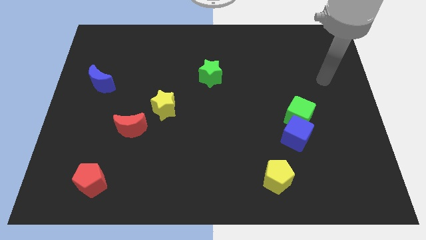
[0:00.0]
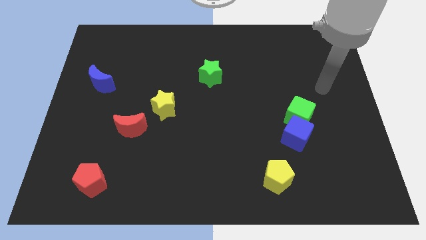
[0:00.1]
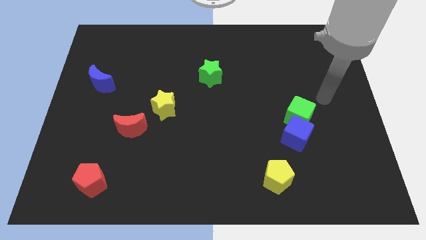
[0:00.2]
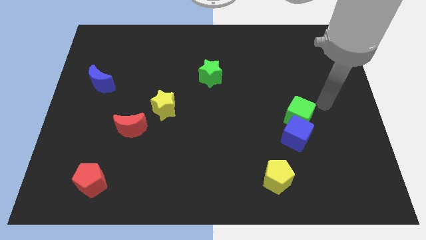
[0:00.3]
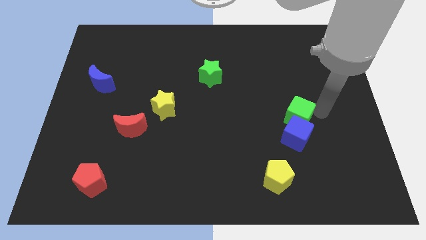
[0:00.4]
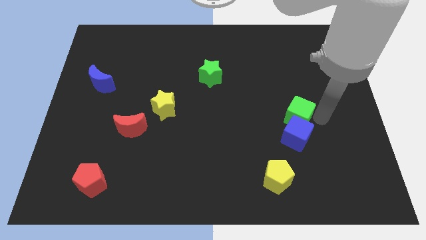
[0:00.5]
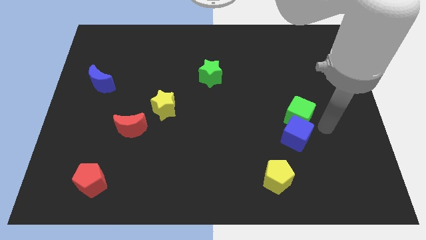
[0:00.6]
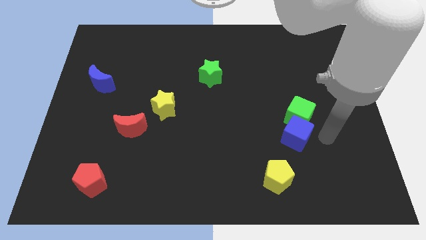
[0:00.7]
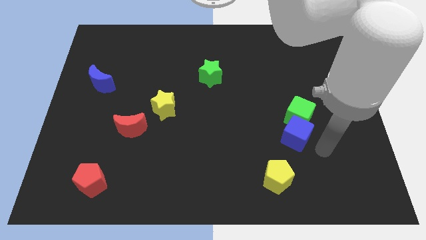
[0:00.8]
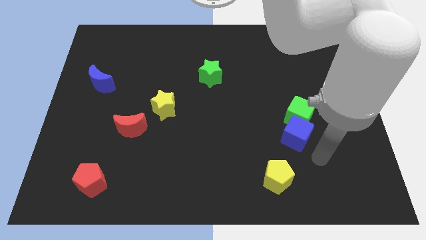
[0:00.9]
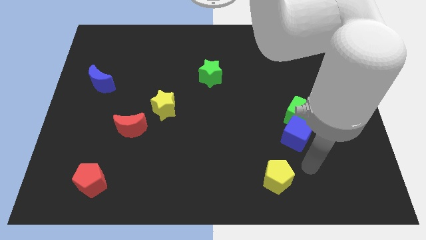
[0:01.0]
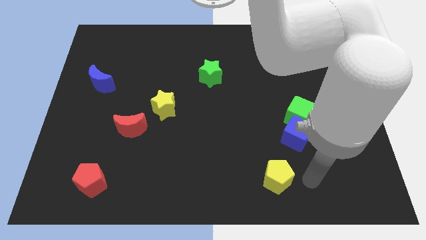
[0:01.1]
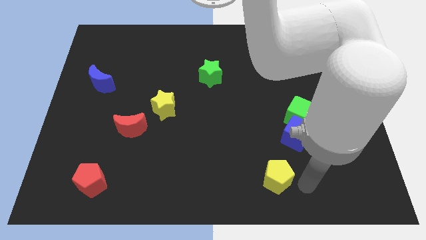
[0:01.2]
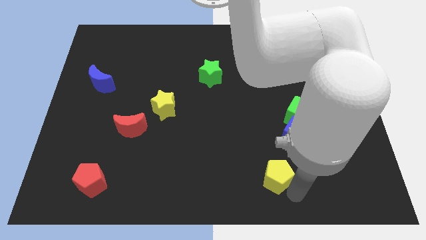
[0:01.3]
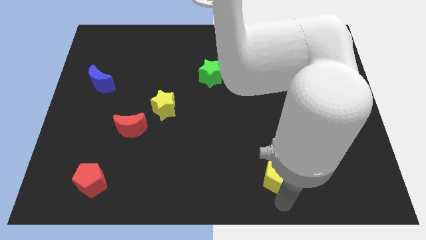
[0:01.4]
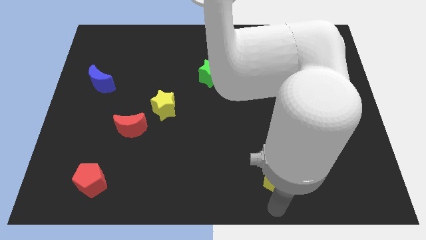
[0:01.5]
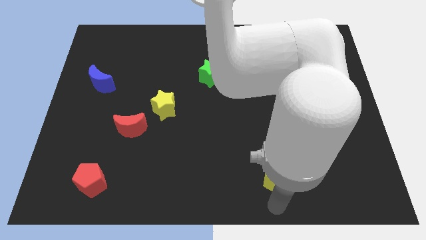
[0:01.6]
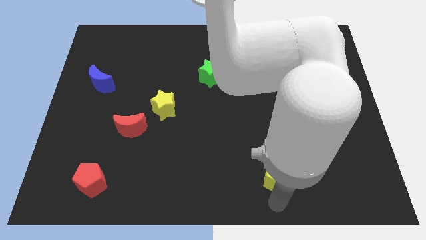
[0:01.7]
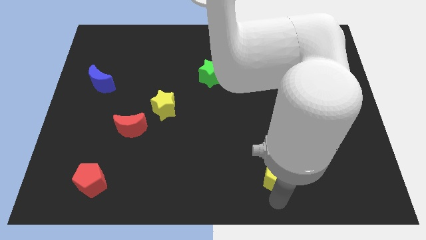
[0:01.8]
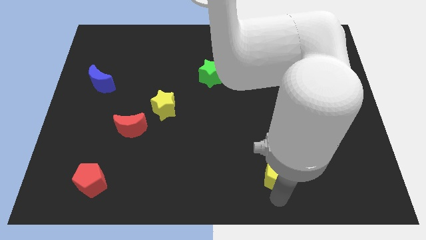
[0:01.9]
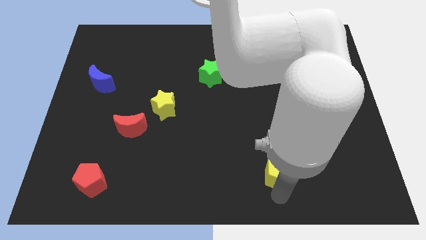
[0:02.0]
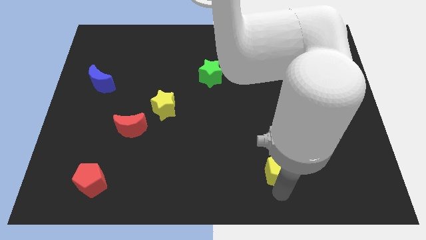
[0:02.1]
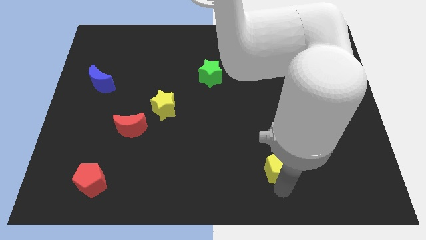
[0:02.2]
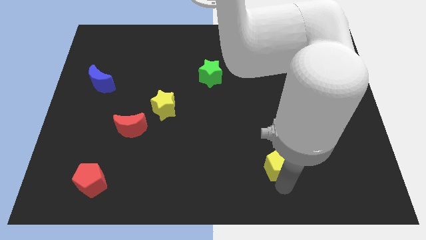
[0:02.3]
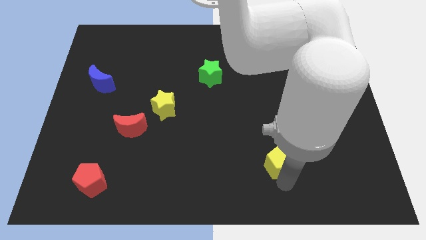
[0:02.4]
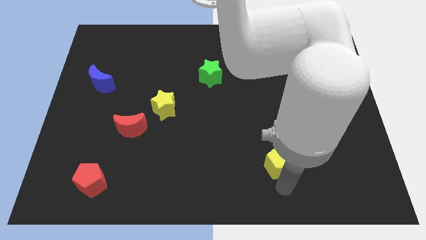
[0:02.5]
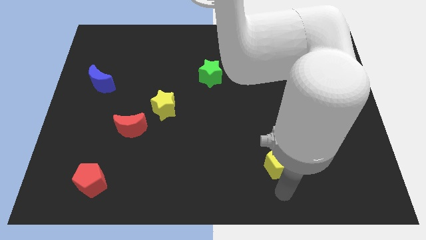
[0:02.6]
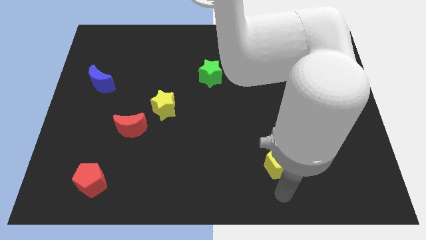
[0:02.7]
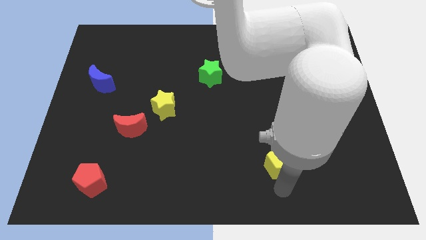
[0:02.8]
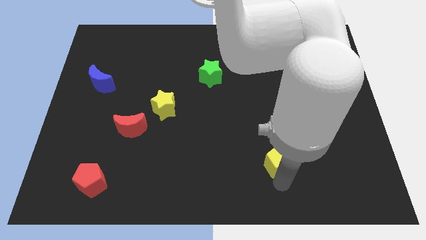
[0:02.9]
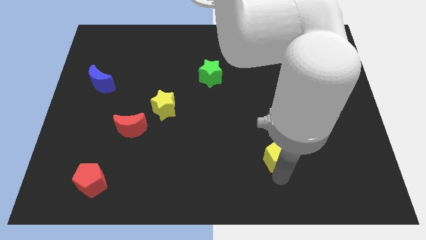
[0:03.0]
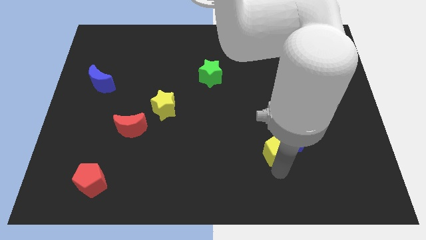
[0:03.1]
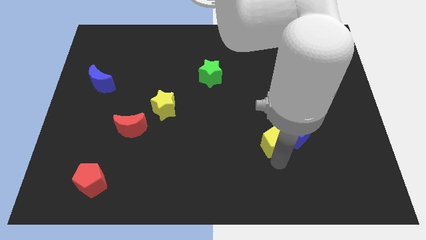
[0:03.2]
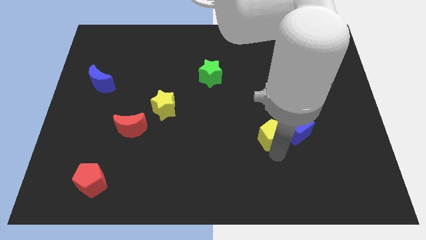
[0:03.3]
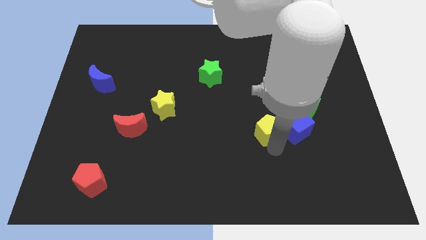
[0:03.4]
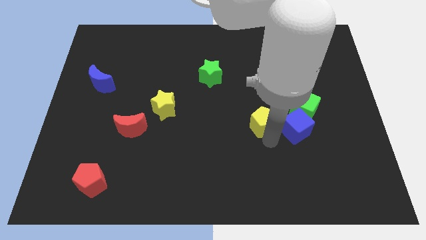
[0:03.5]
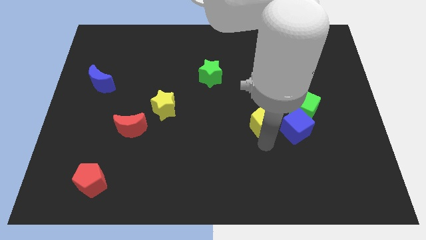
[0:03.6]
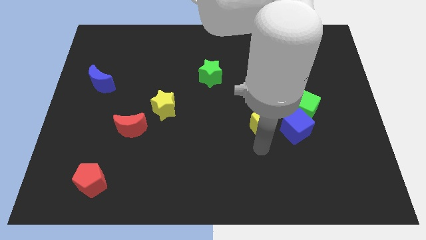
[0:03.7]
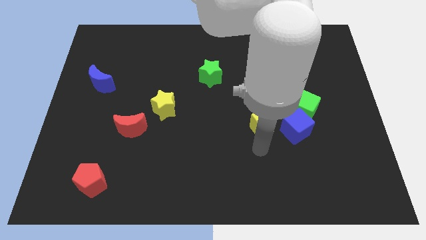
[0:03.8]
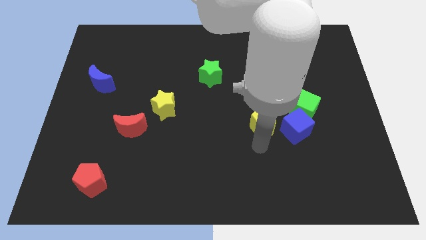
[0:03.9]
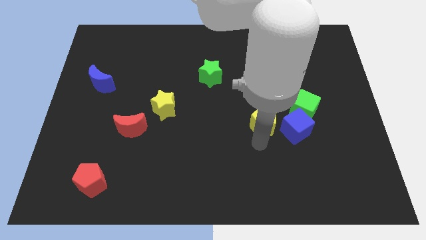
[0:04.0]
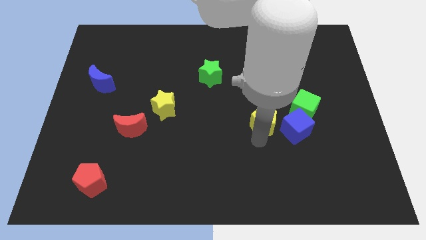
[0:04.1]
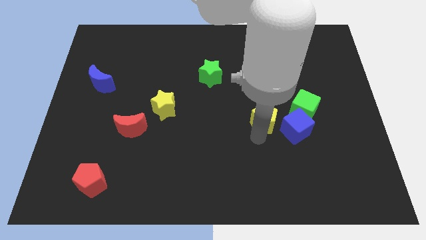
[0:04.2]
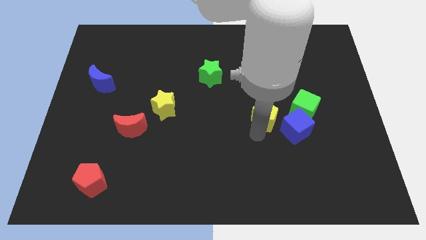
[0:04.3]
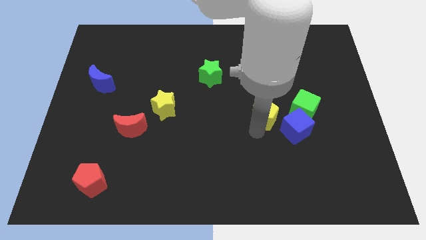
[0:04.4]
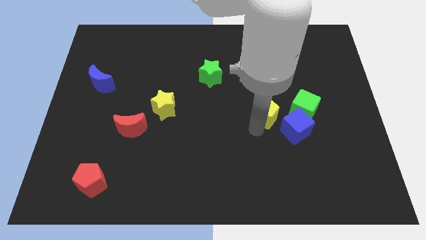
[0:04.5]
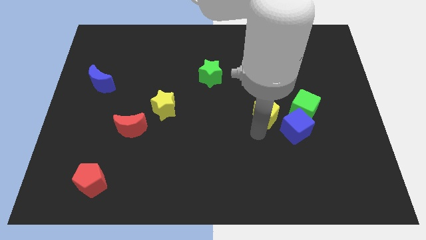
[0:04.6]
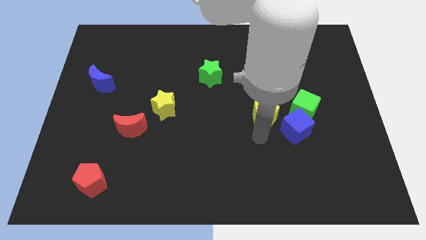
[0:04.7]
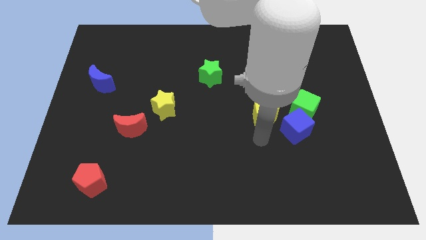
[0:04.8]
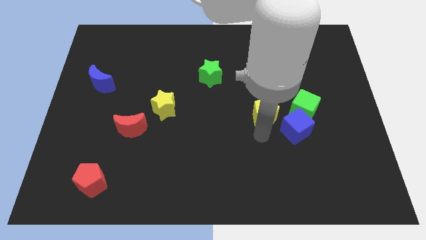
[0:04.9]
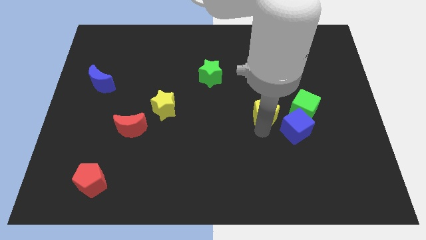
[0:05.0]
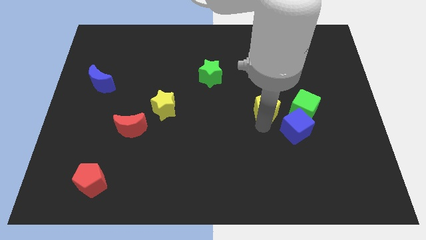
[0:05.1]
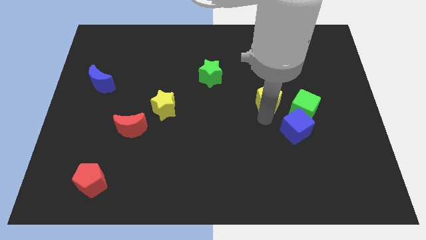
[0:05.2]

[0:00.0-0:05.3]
move the yellow pentagon upwards

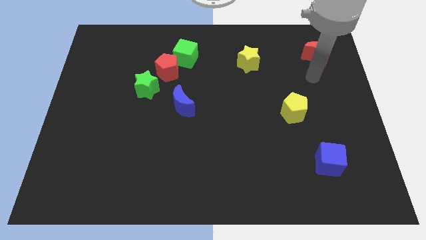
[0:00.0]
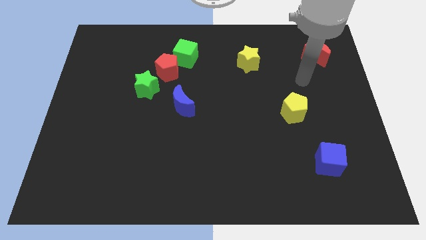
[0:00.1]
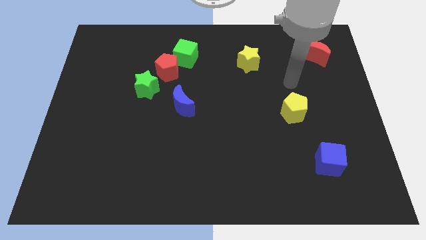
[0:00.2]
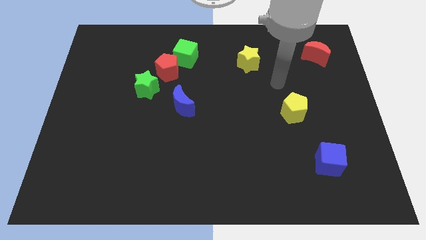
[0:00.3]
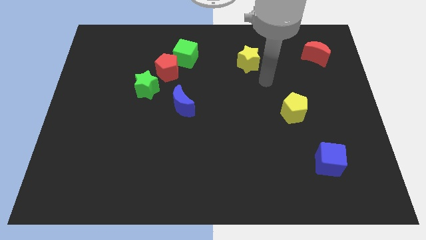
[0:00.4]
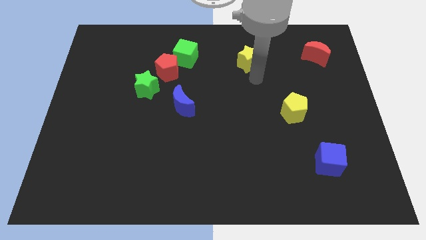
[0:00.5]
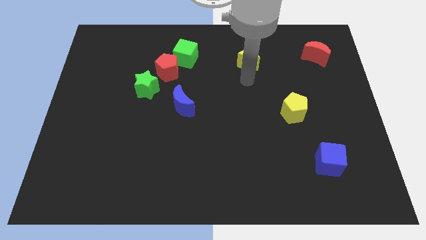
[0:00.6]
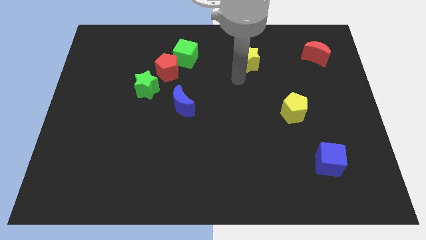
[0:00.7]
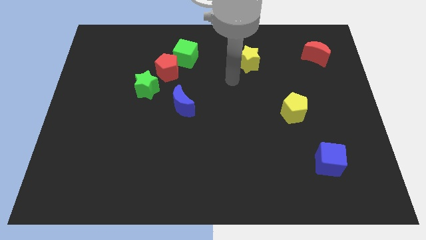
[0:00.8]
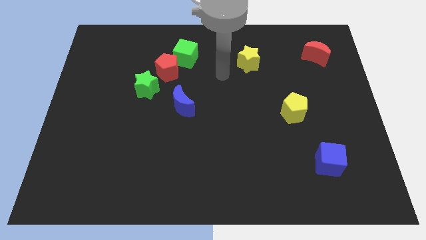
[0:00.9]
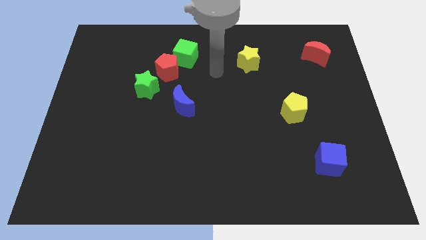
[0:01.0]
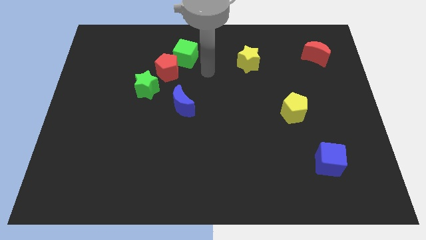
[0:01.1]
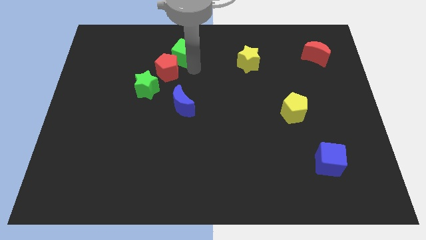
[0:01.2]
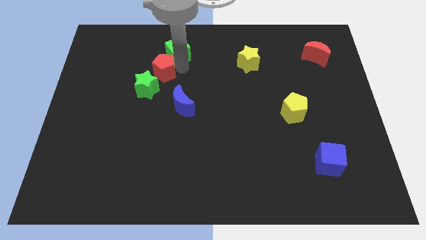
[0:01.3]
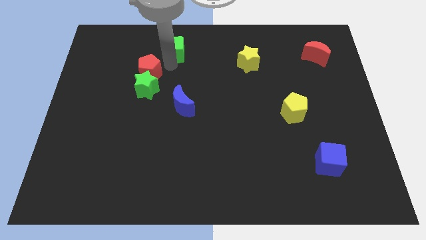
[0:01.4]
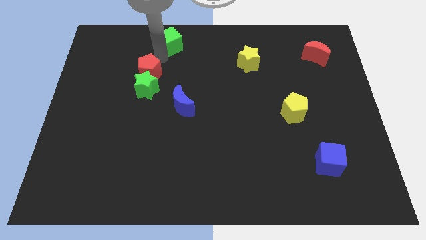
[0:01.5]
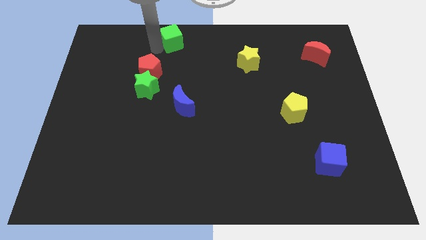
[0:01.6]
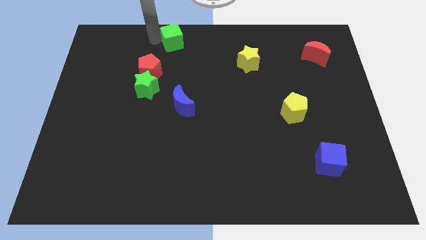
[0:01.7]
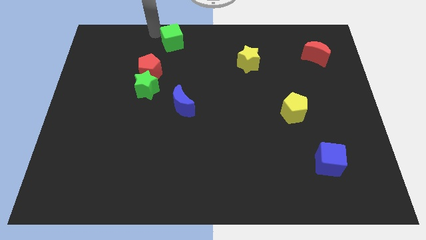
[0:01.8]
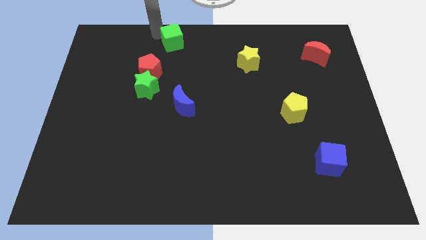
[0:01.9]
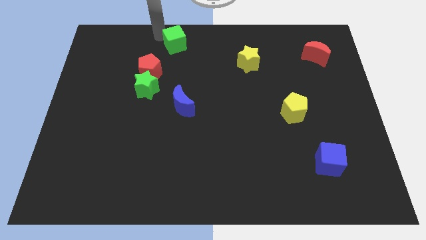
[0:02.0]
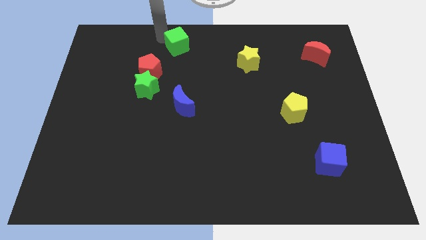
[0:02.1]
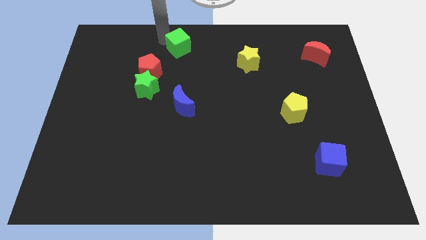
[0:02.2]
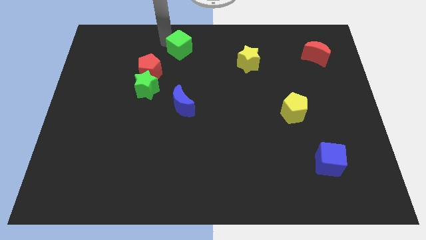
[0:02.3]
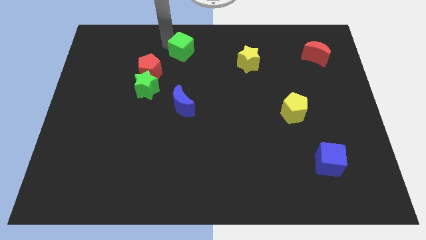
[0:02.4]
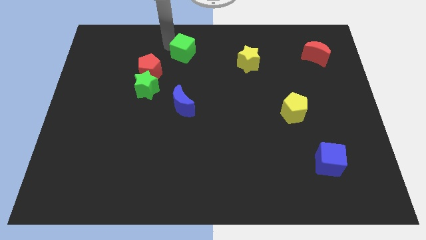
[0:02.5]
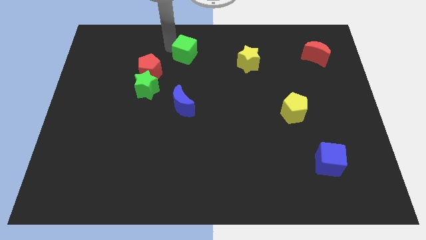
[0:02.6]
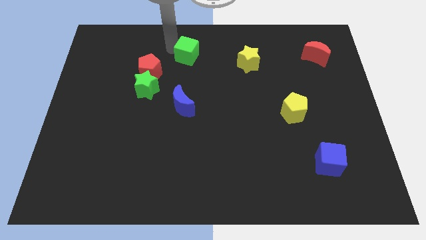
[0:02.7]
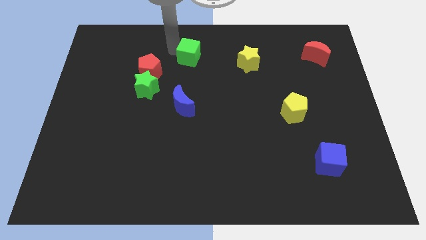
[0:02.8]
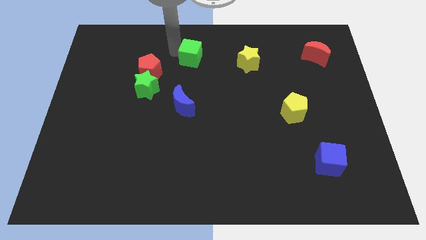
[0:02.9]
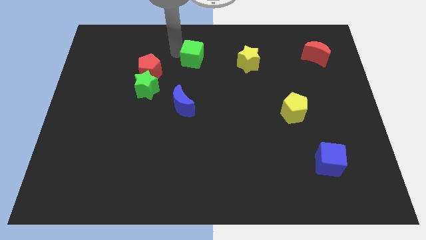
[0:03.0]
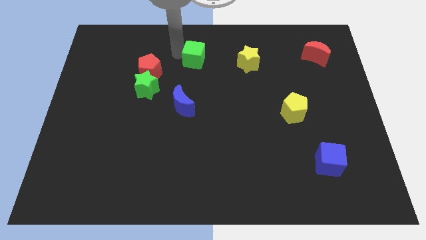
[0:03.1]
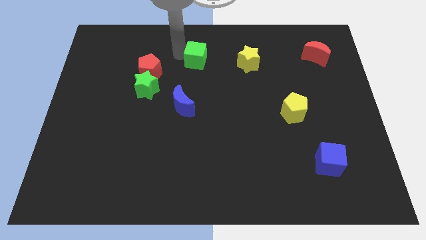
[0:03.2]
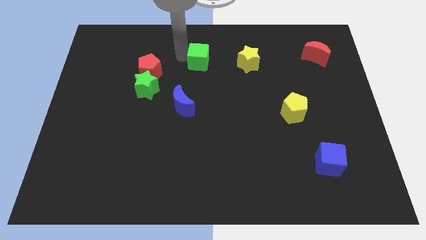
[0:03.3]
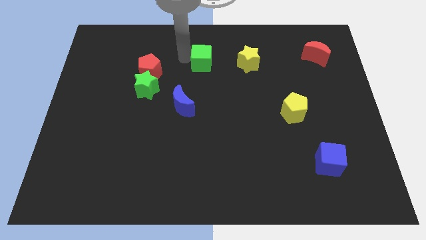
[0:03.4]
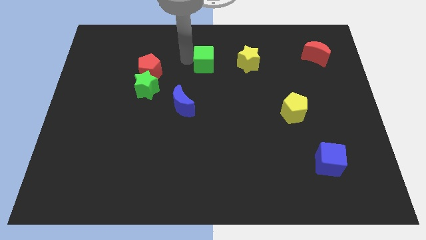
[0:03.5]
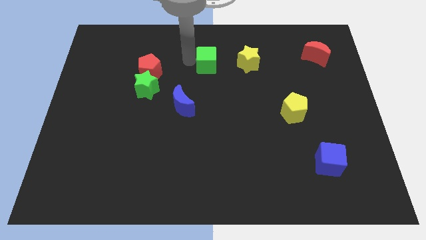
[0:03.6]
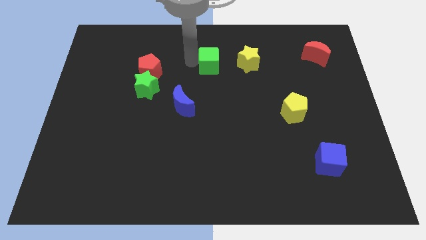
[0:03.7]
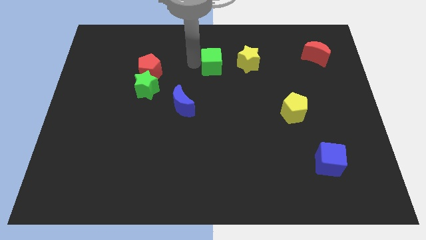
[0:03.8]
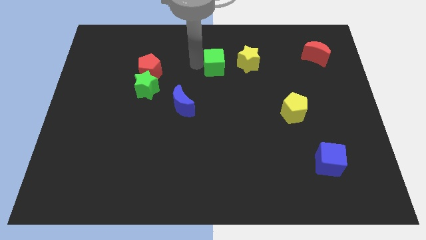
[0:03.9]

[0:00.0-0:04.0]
slide the green cube slightly right
